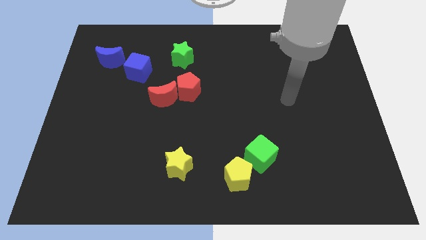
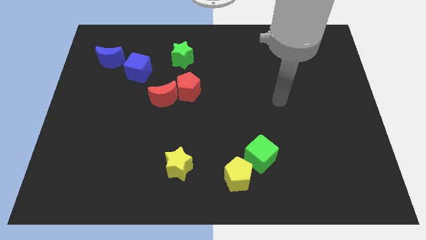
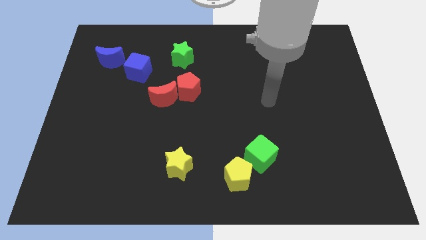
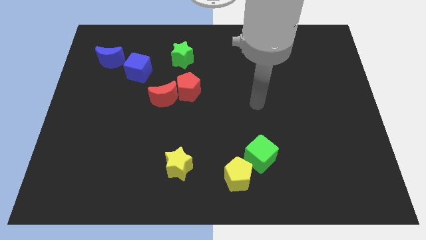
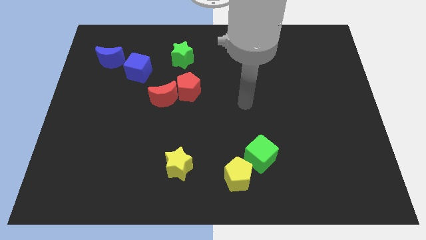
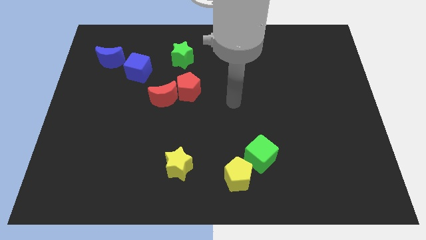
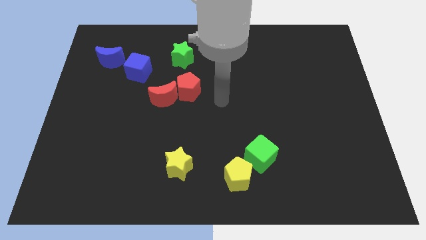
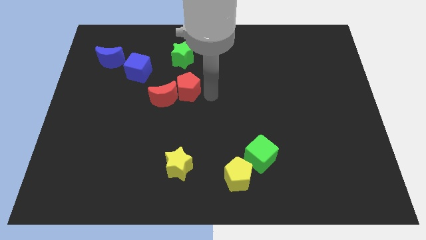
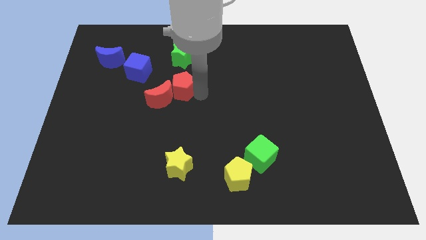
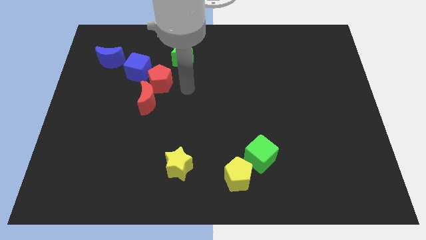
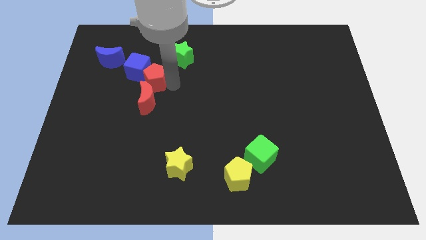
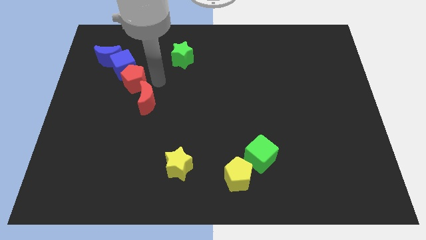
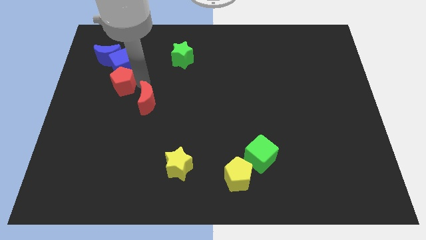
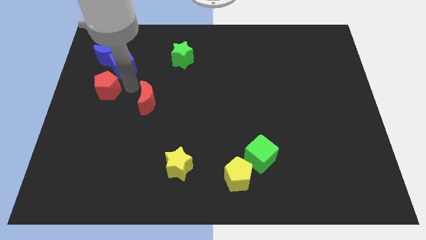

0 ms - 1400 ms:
move the red moon away from the red pentagon

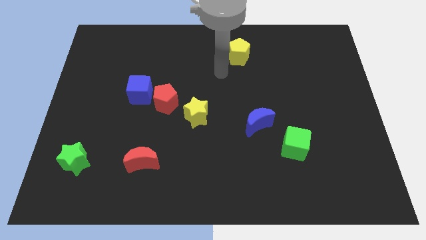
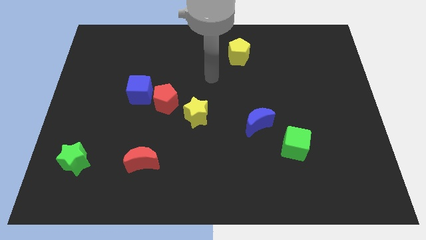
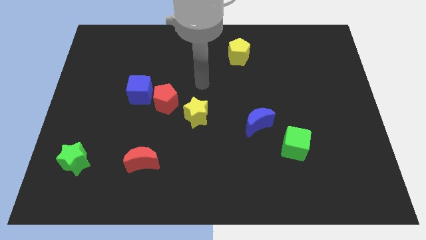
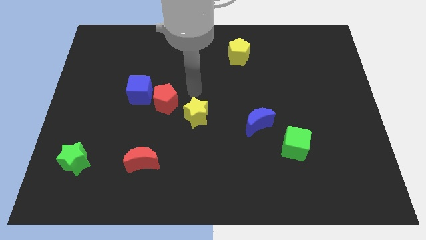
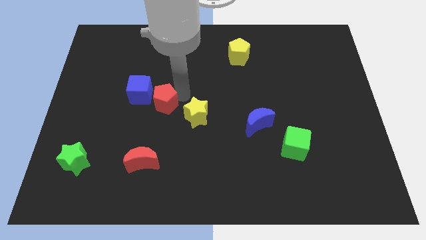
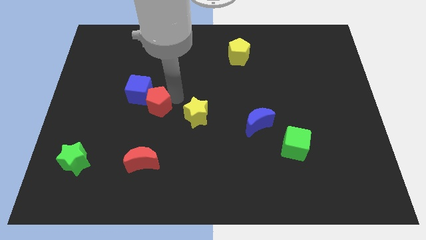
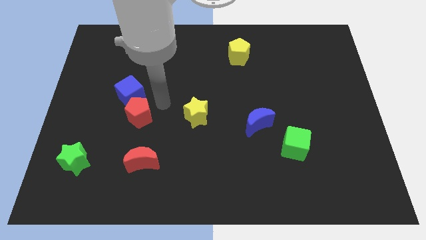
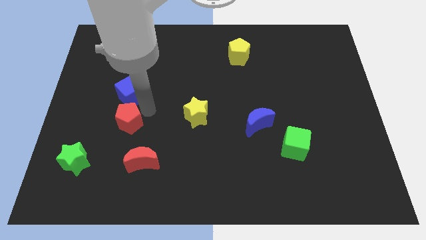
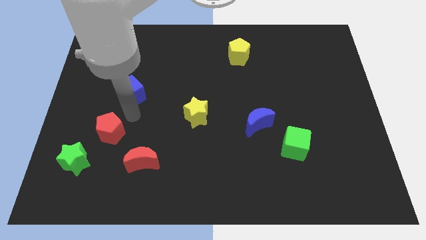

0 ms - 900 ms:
separate the blue cube from the red pentagon

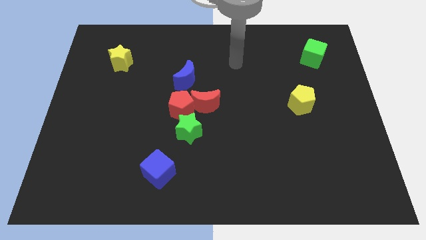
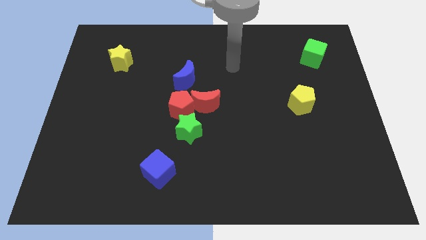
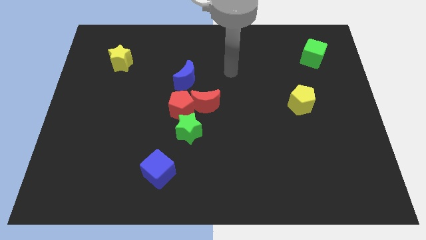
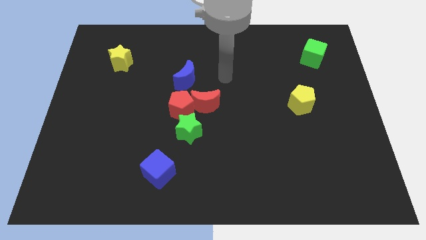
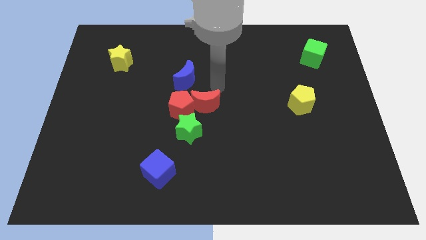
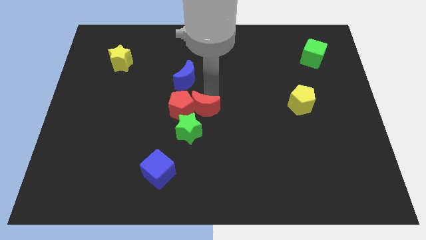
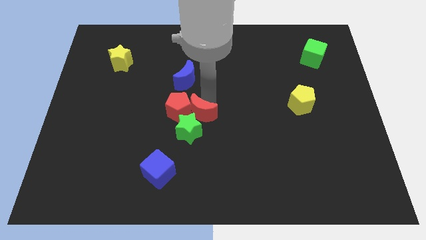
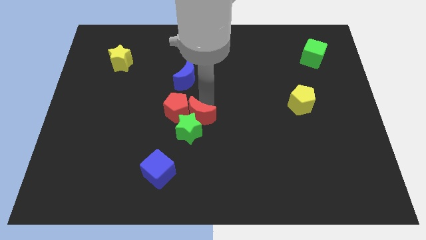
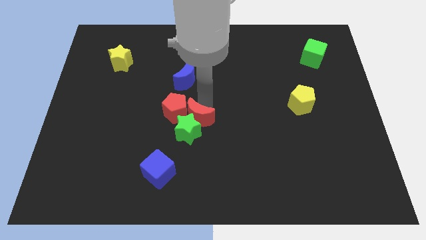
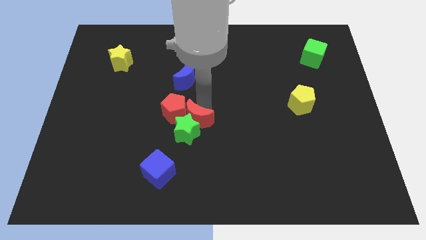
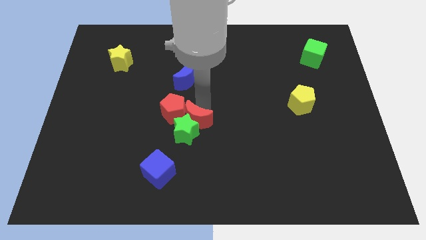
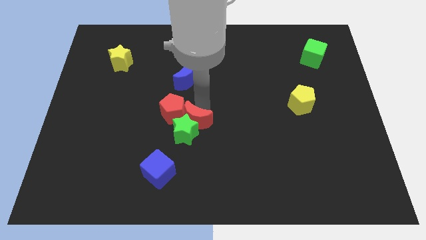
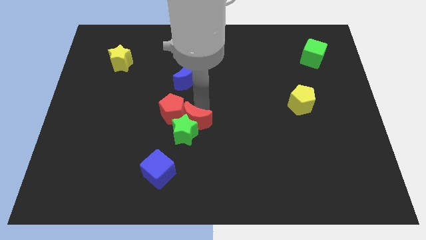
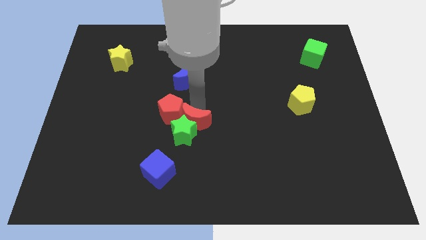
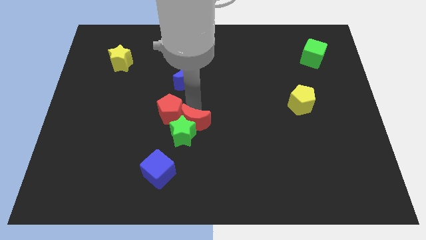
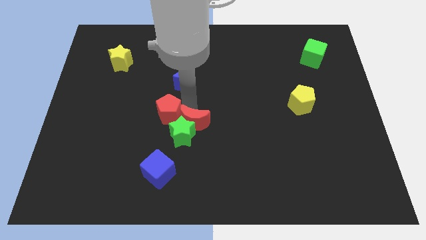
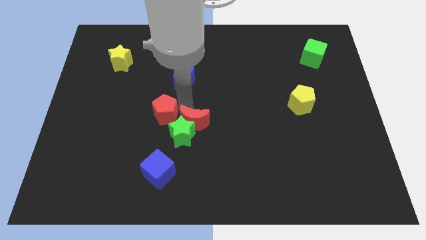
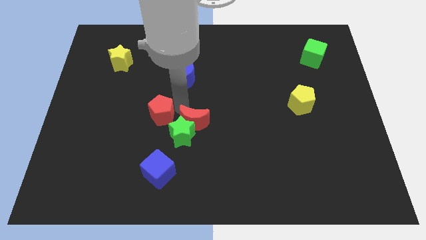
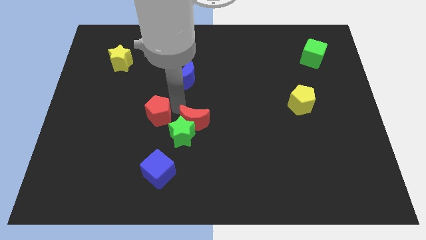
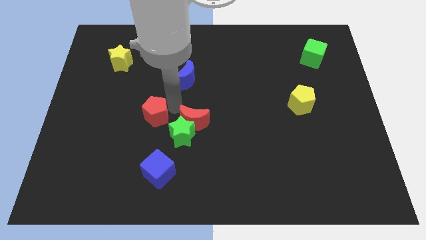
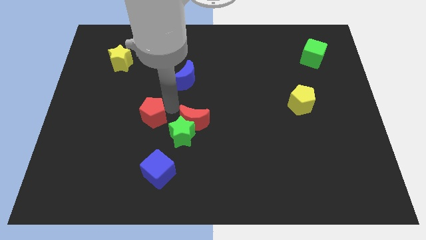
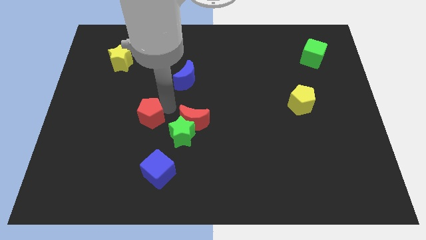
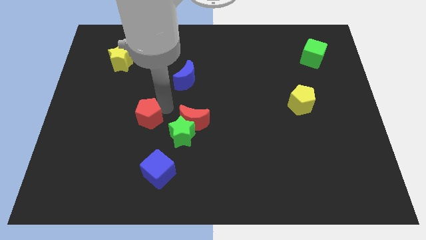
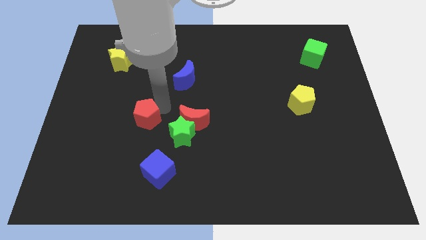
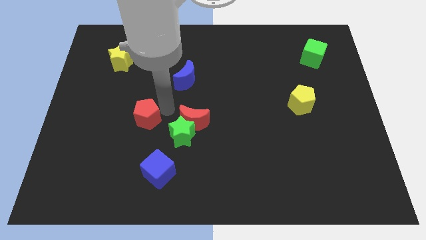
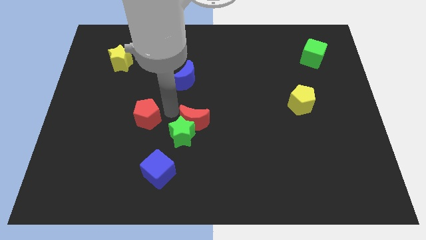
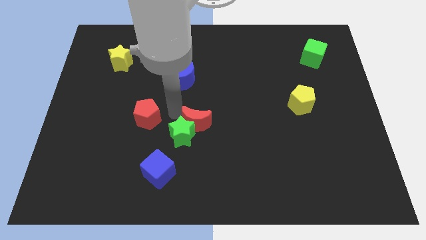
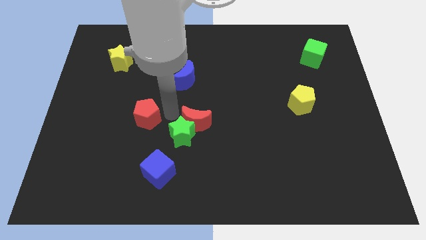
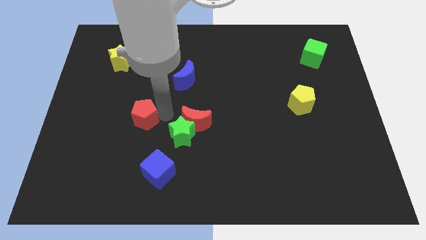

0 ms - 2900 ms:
move the red pentagon away from the group of blocks

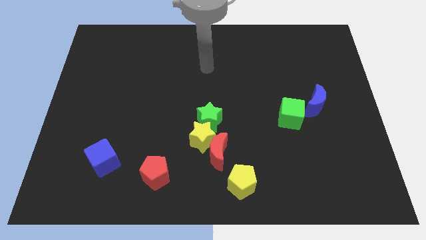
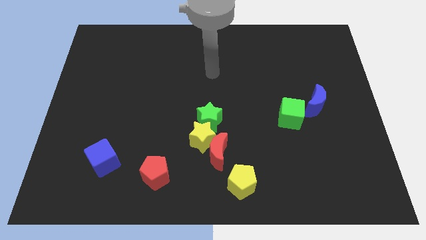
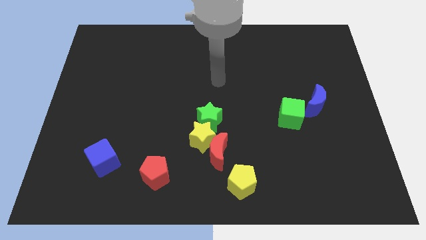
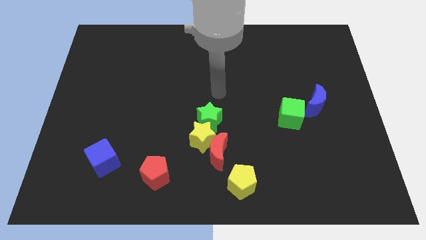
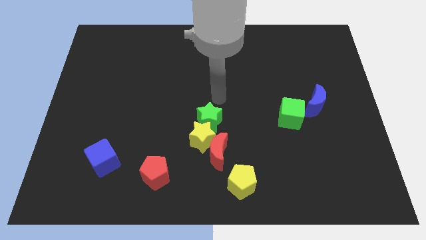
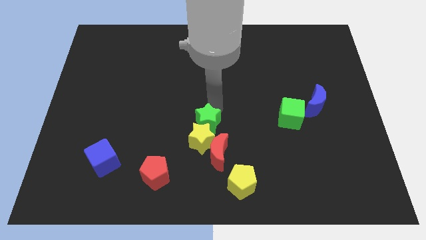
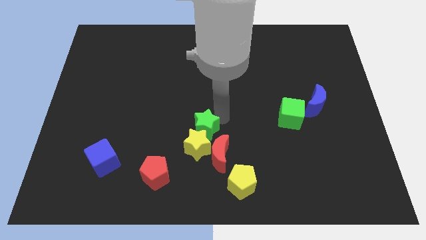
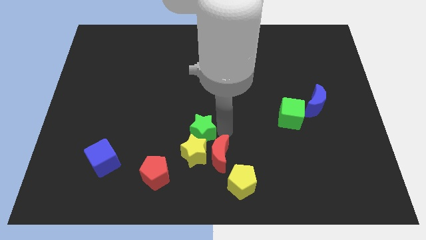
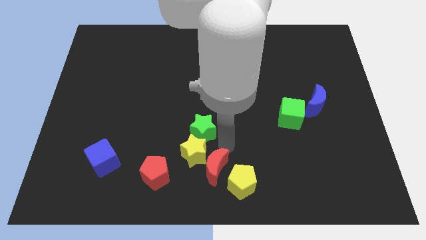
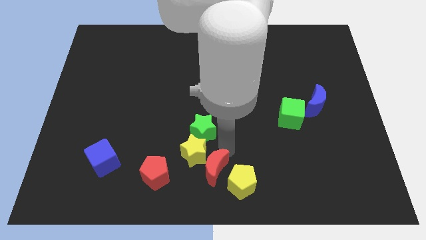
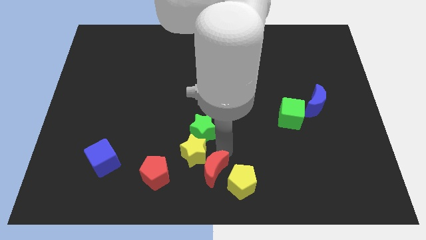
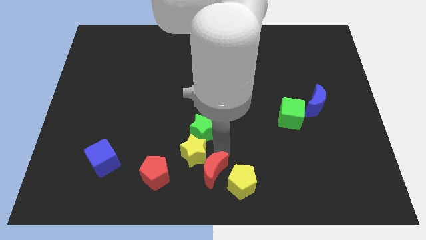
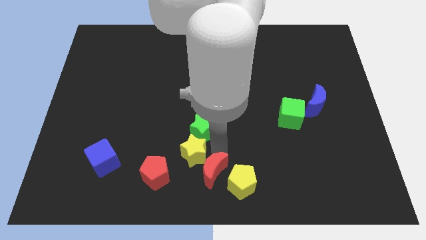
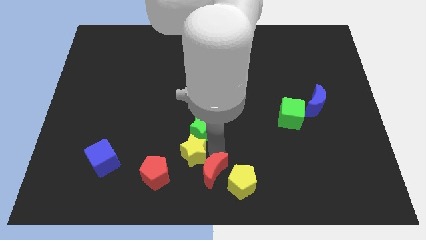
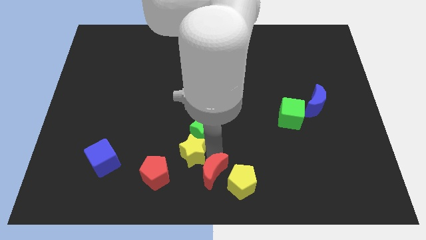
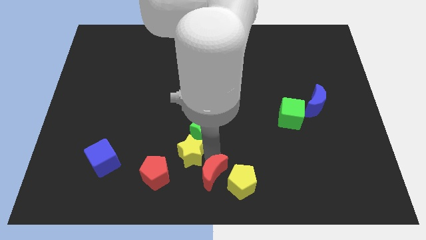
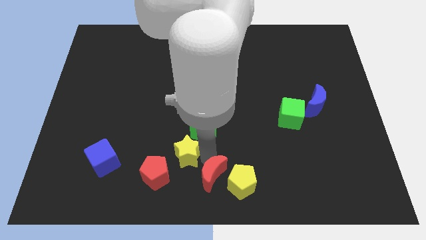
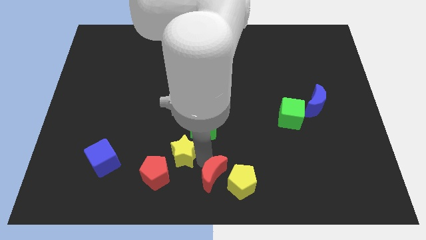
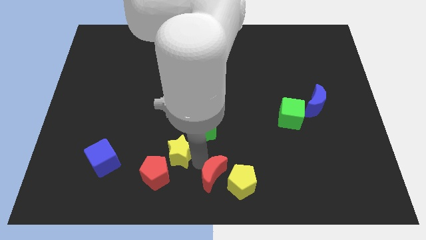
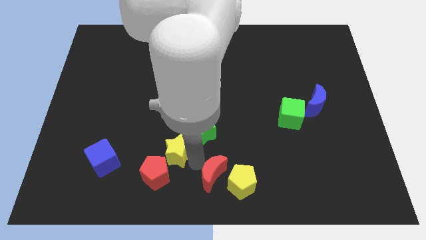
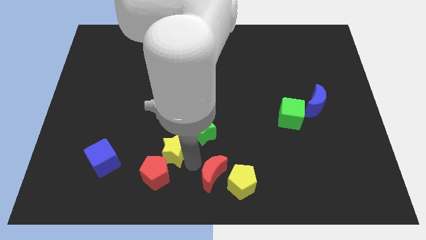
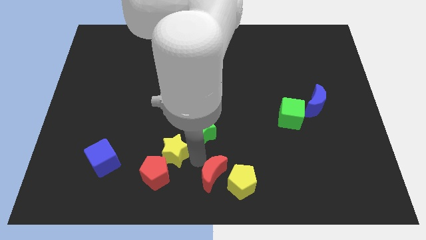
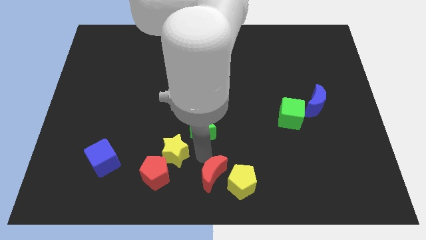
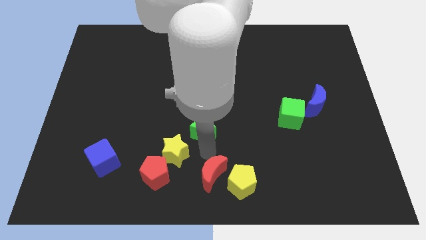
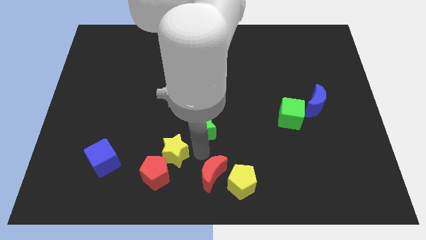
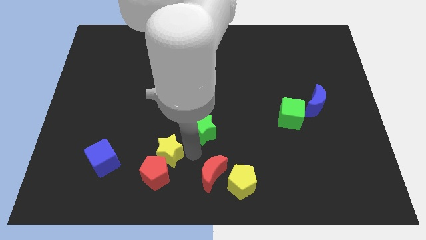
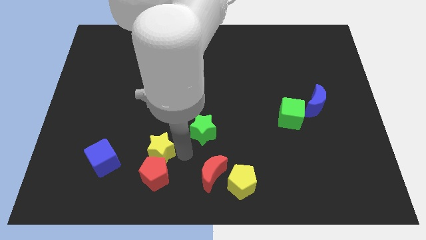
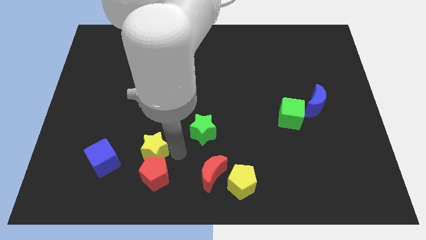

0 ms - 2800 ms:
separate the yellow star from the red moon and green star

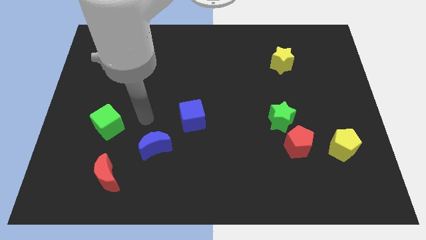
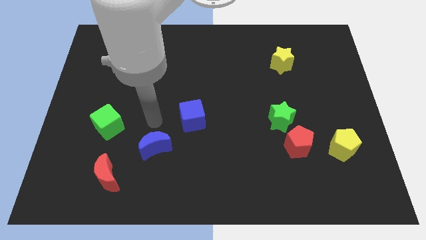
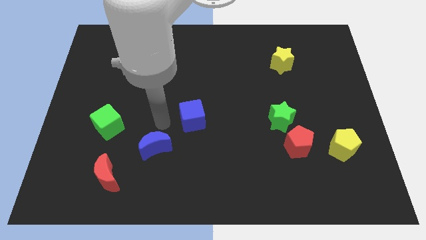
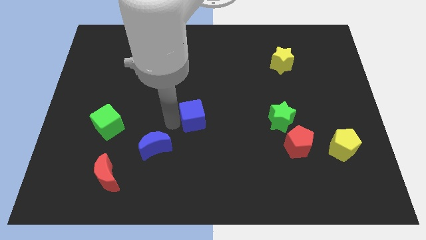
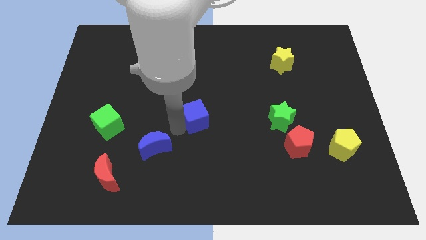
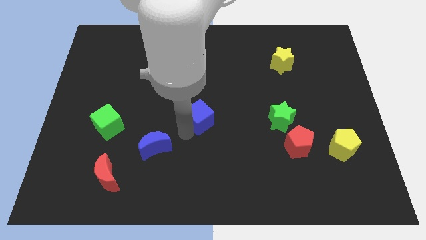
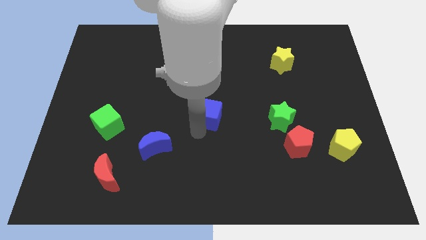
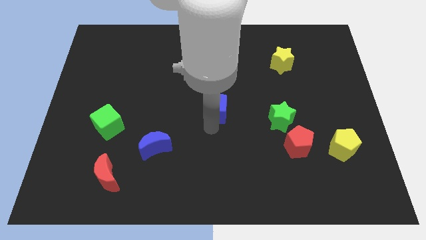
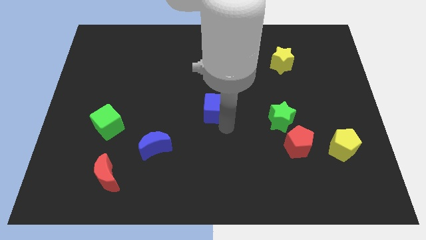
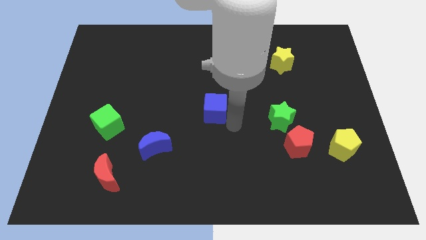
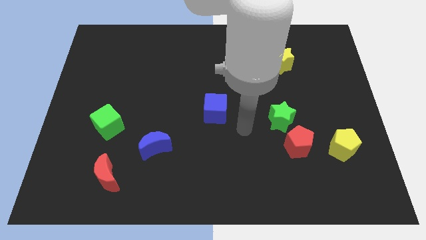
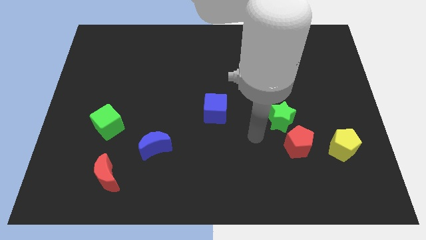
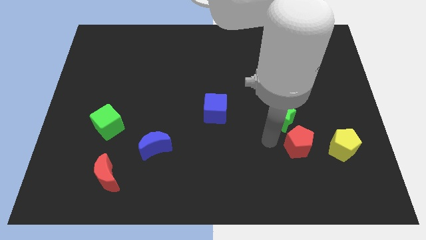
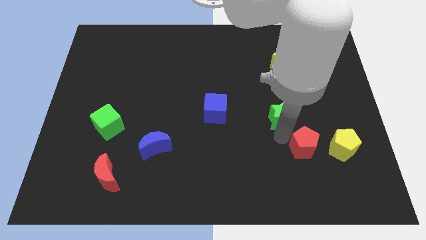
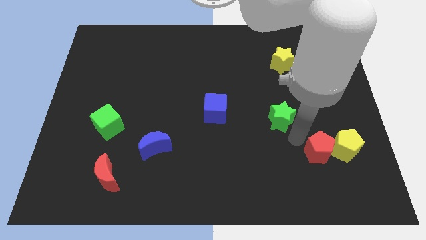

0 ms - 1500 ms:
pull the green star apart from the red pentagon
